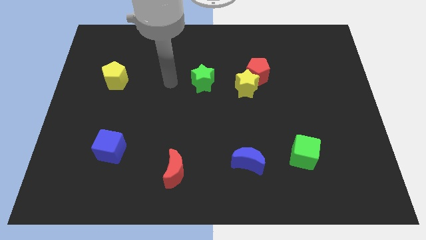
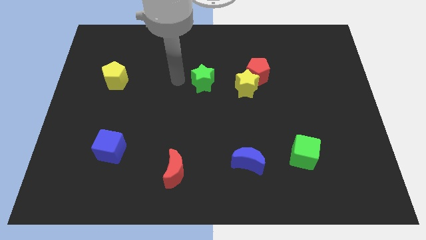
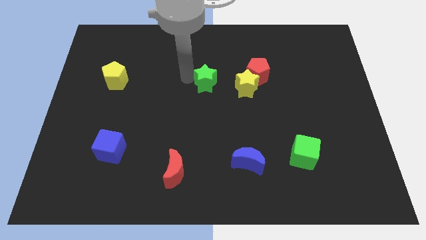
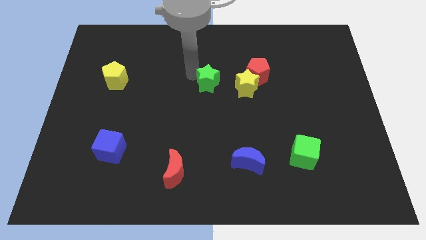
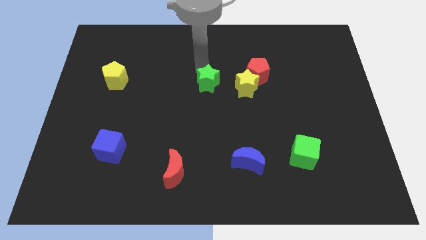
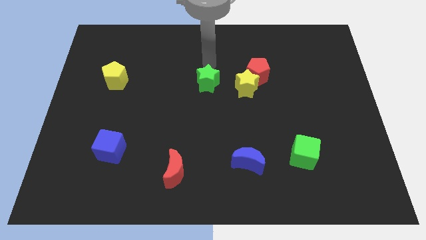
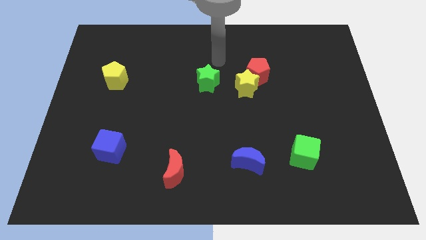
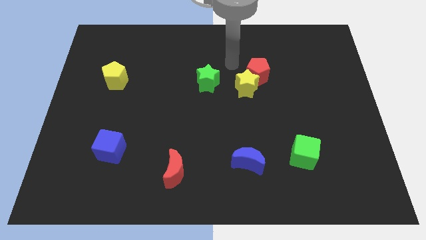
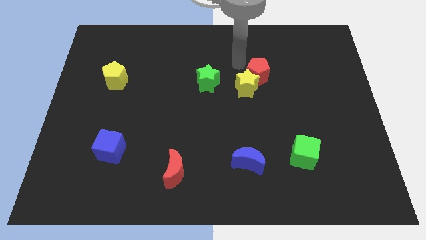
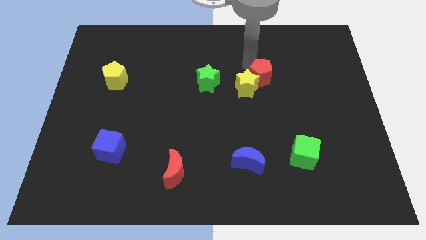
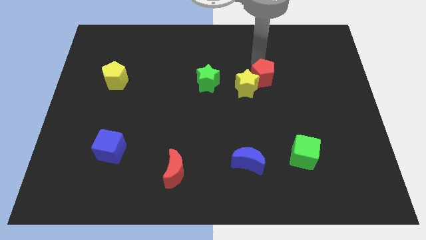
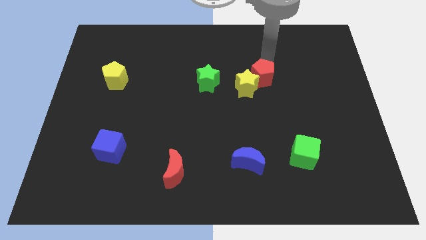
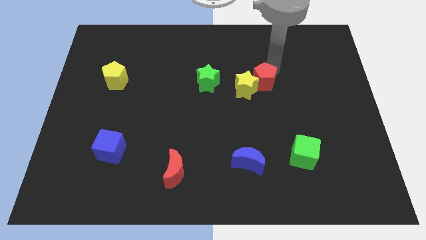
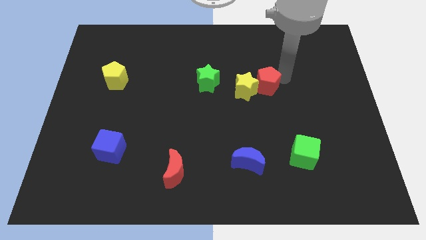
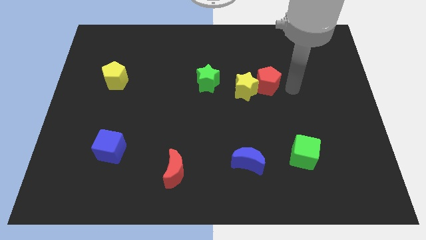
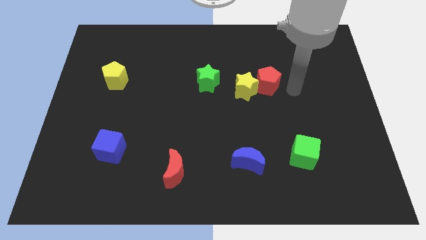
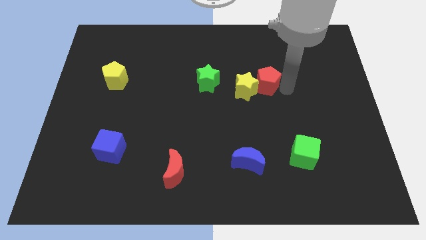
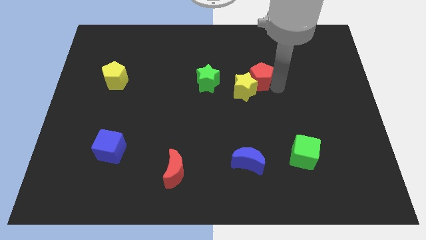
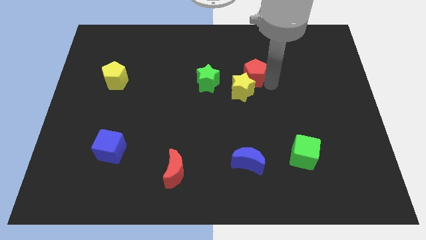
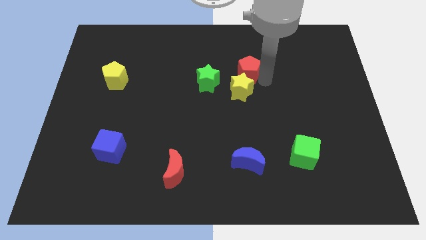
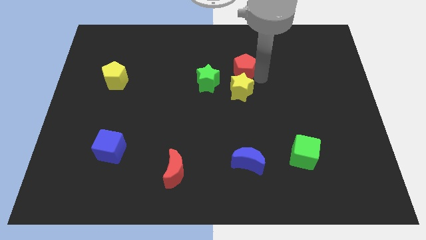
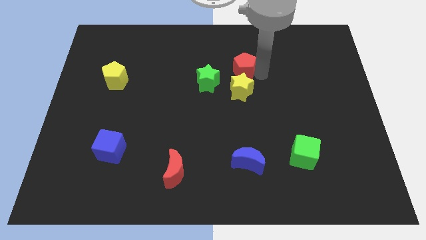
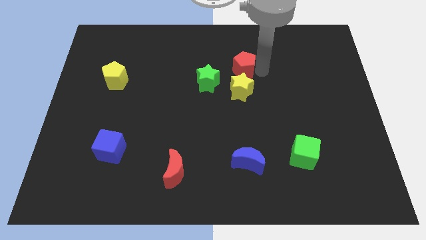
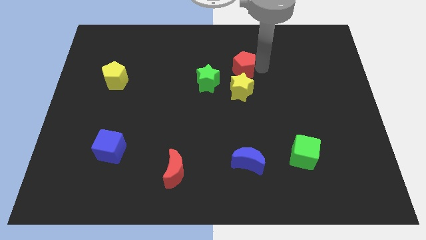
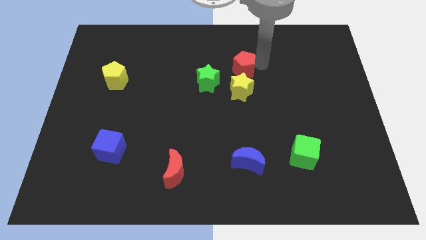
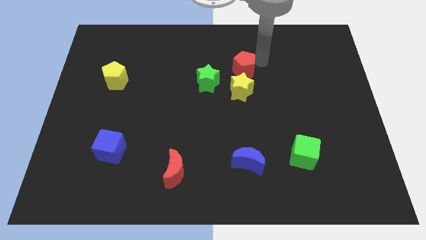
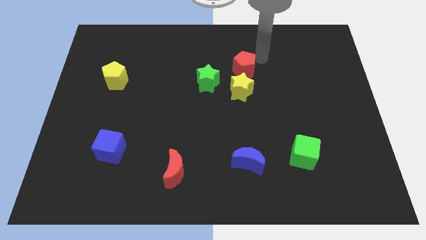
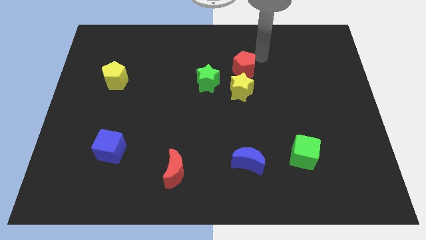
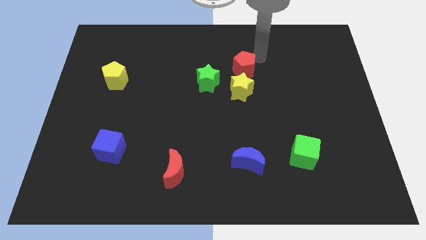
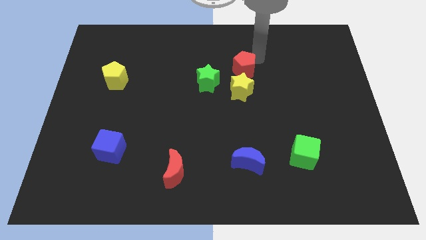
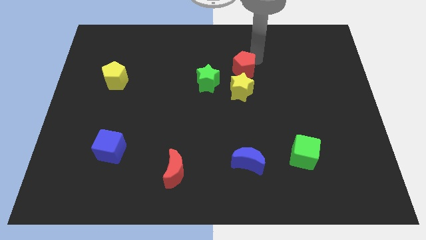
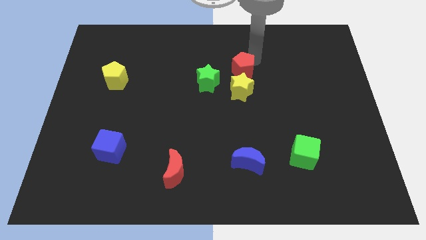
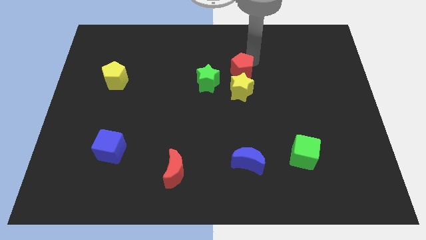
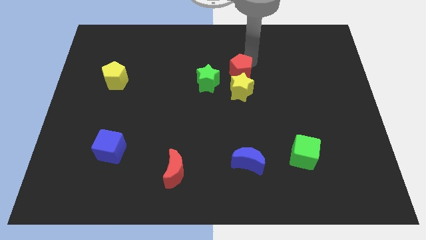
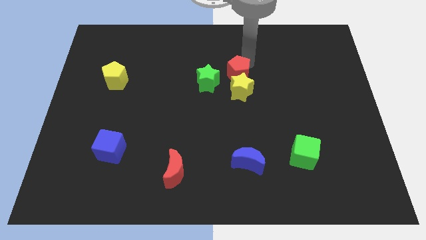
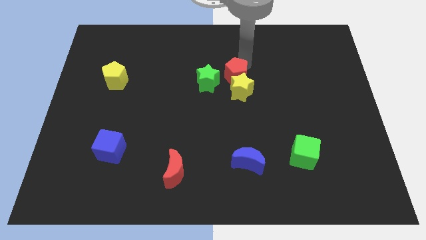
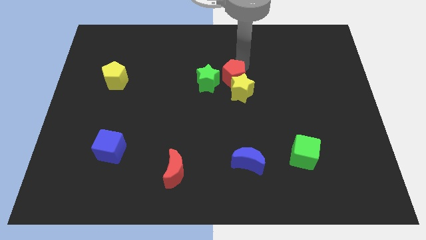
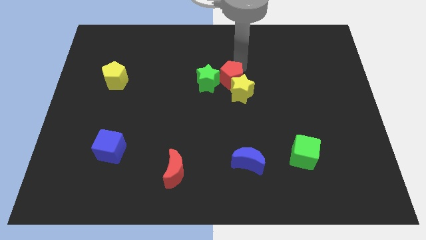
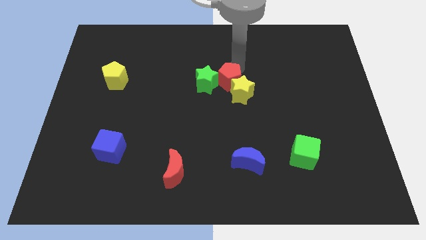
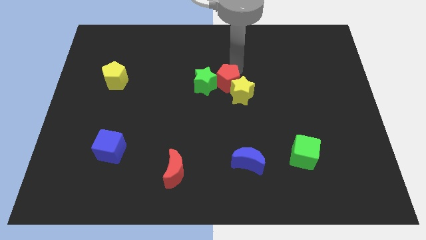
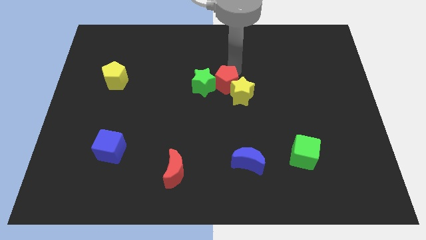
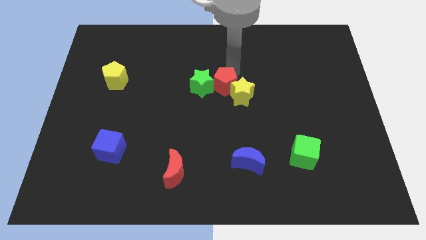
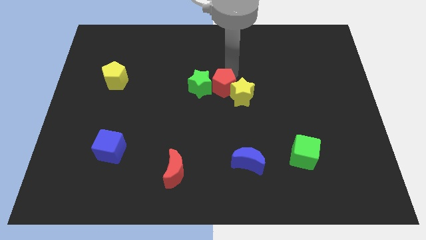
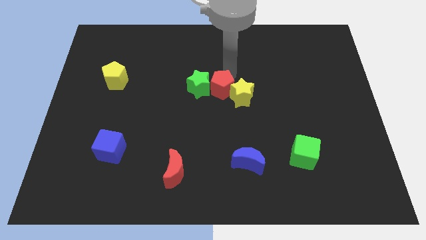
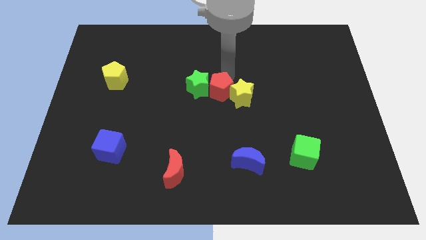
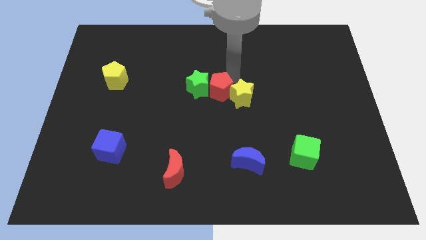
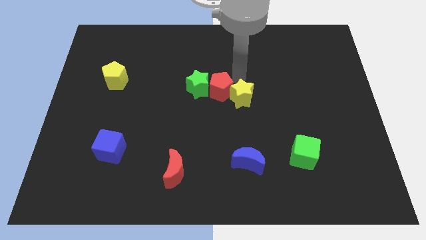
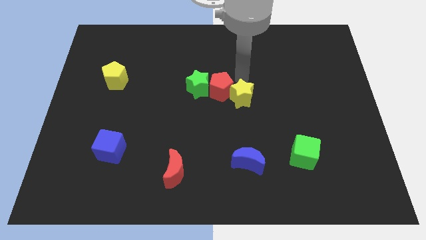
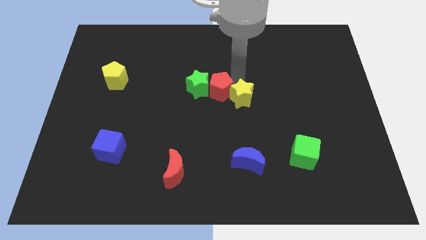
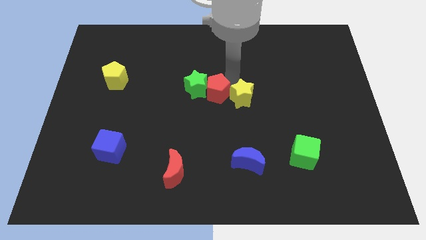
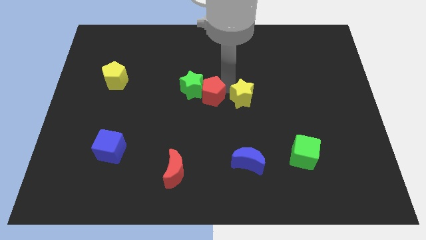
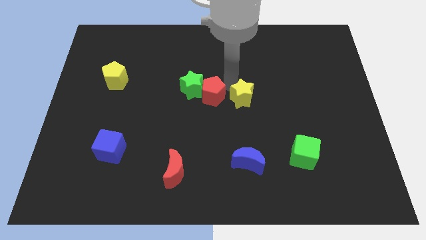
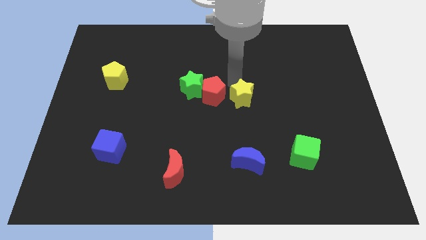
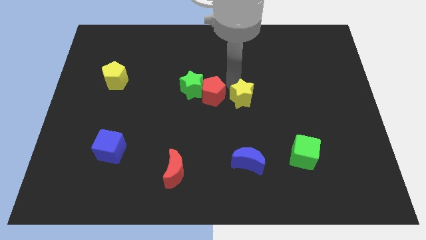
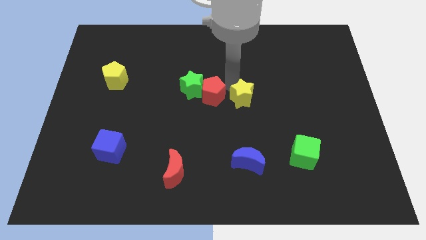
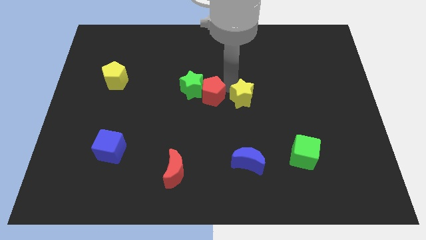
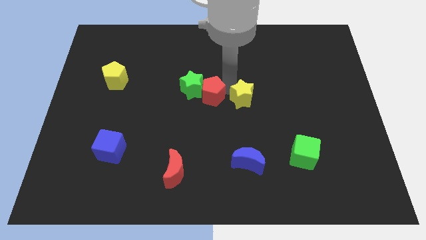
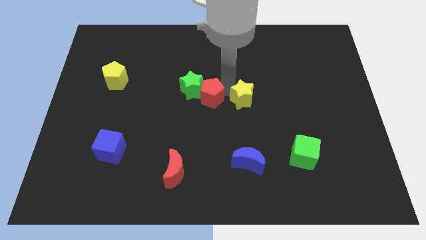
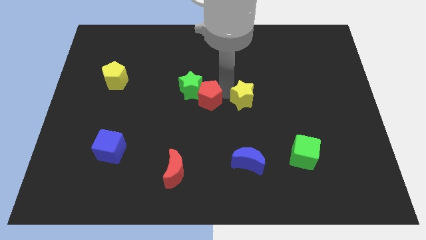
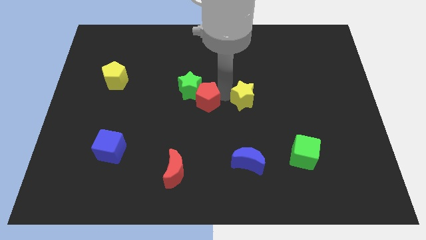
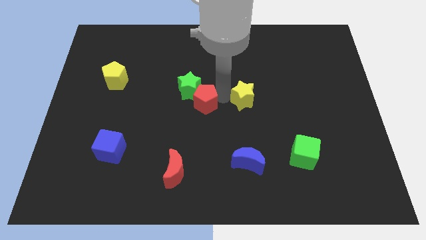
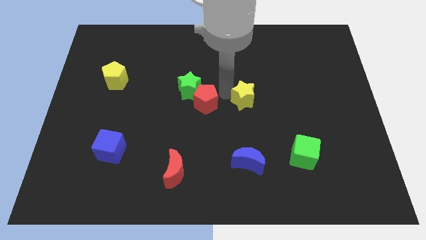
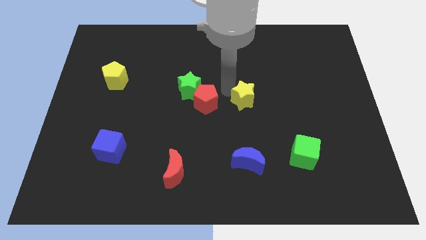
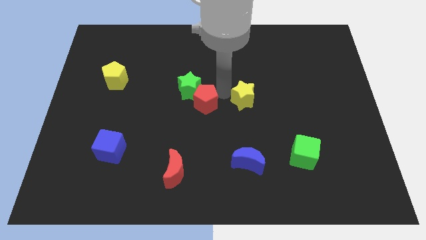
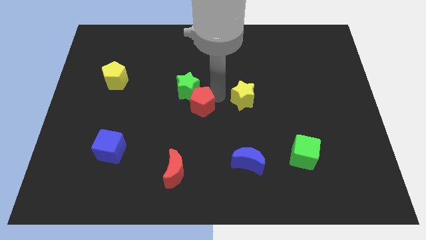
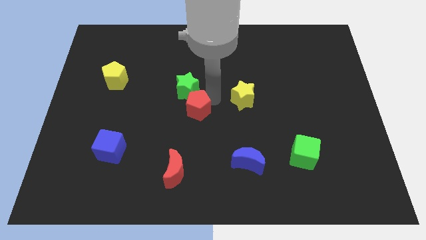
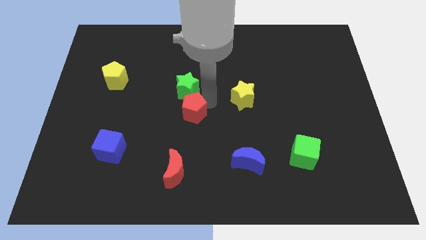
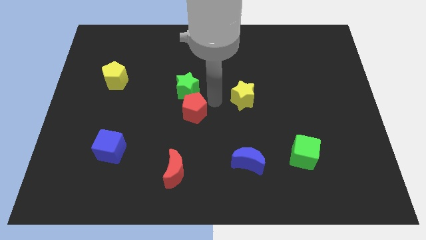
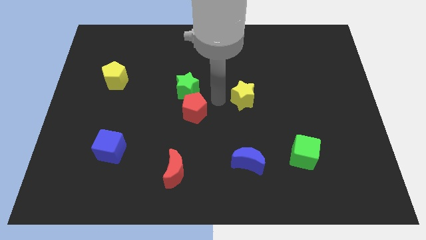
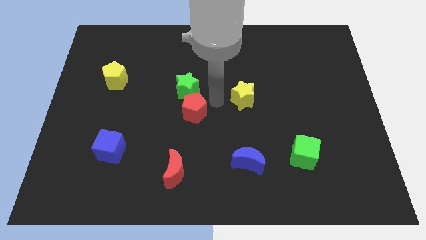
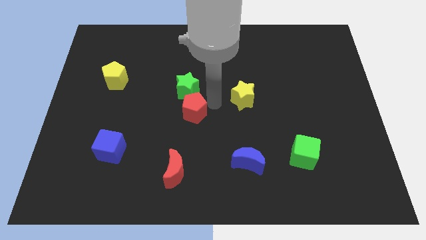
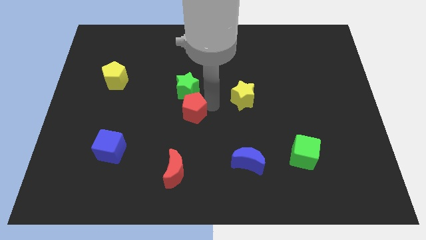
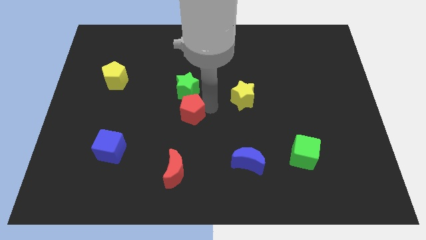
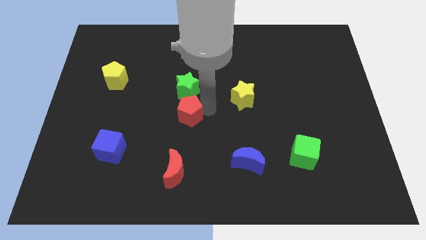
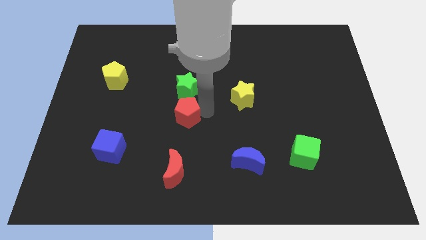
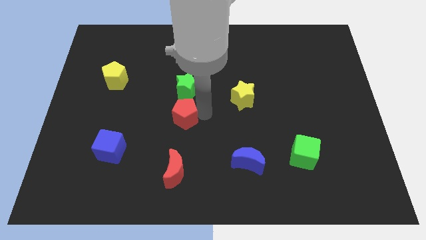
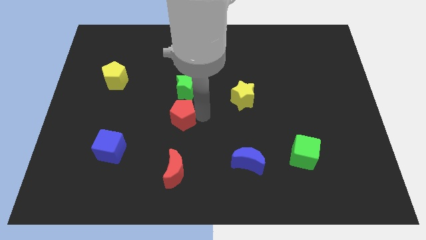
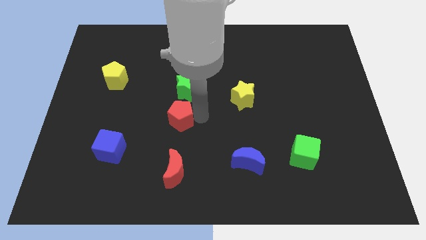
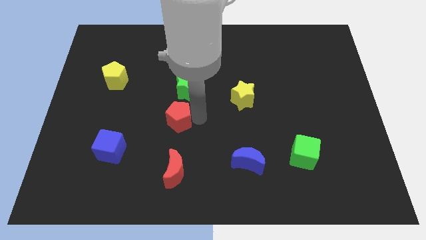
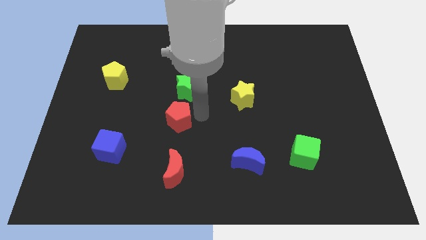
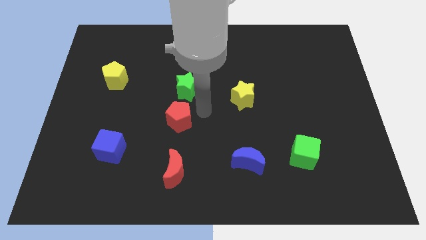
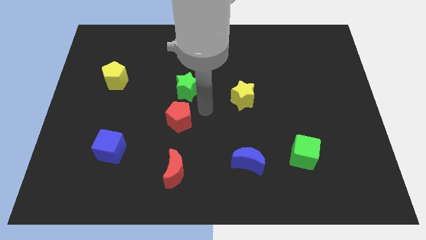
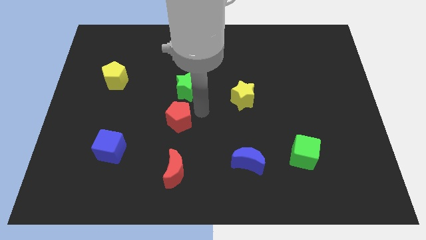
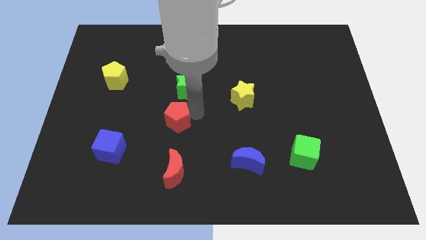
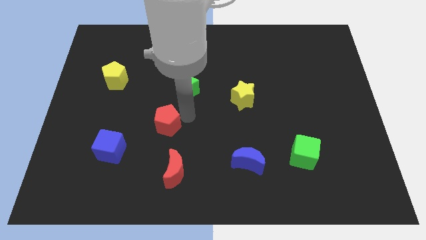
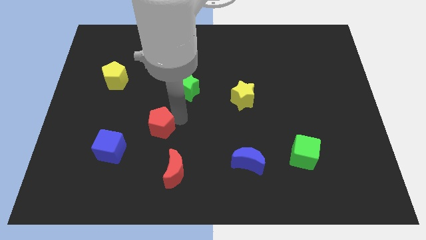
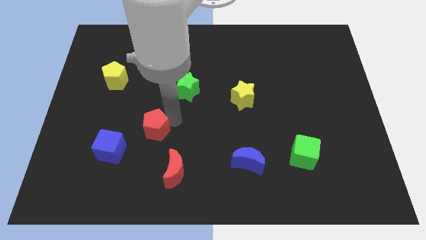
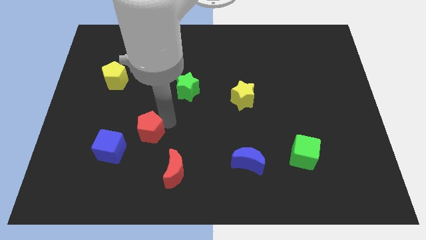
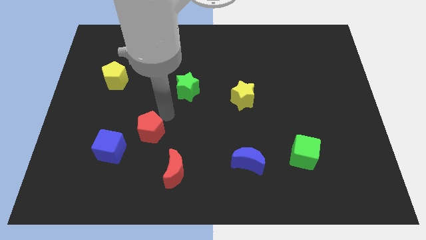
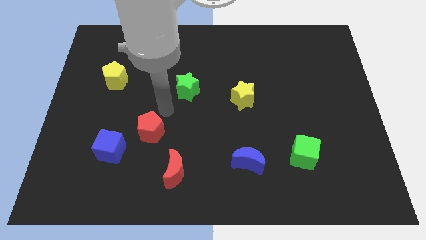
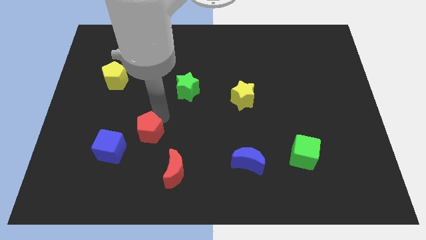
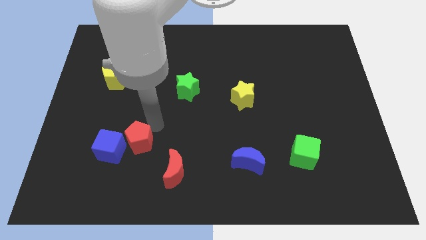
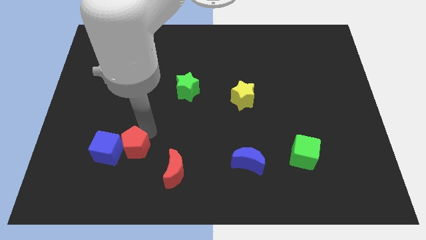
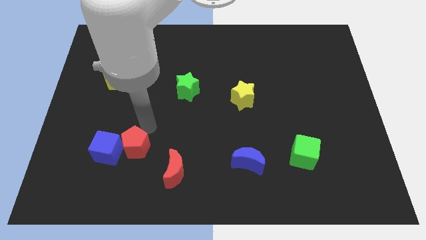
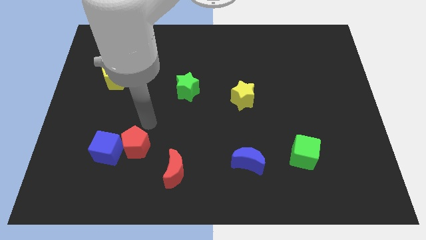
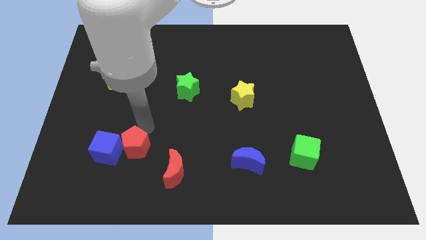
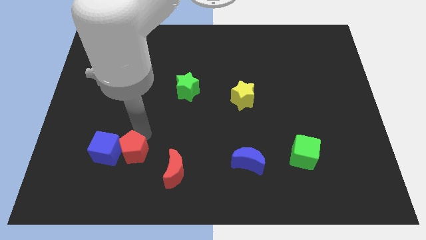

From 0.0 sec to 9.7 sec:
slide the red pentagon to the left side of the red moon
